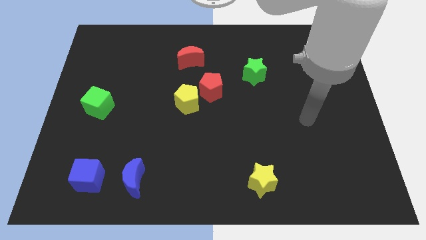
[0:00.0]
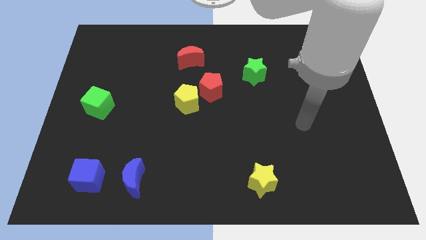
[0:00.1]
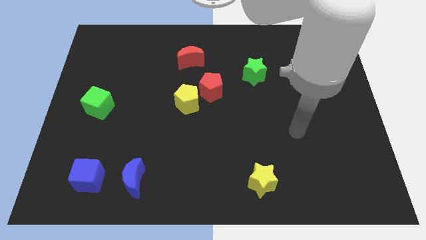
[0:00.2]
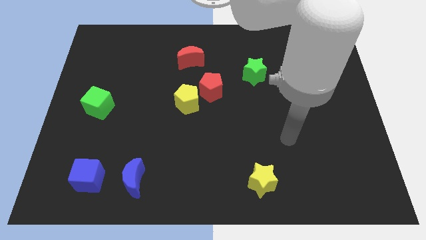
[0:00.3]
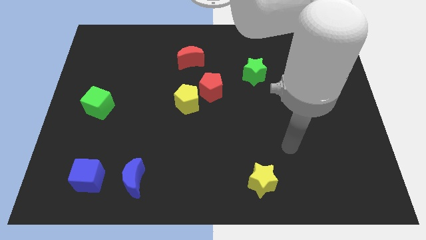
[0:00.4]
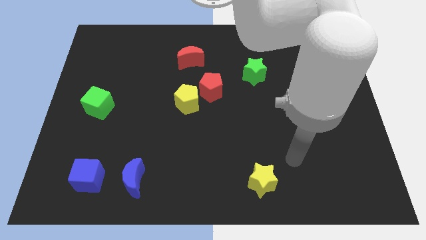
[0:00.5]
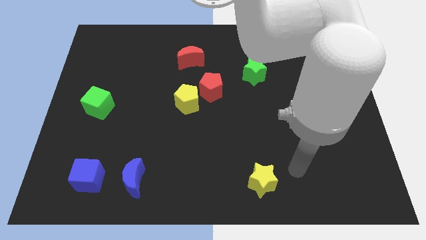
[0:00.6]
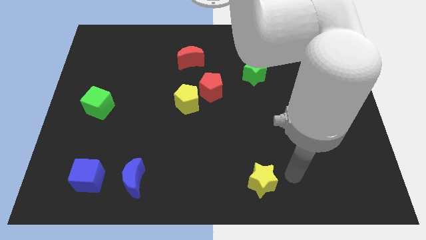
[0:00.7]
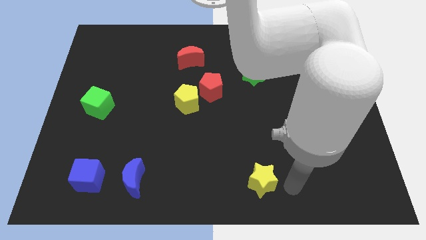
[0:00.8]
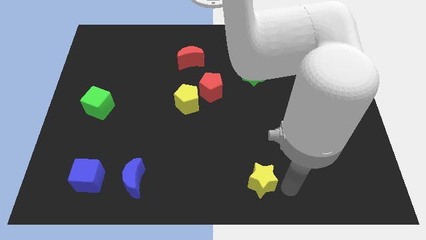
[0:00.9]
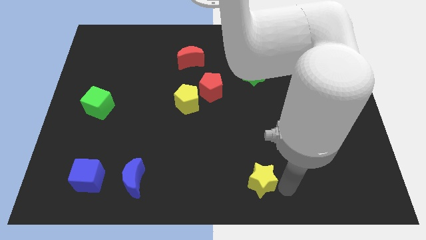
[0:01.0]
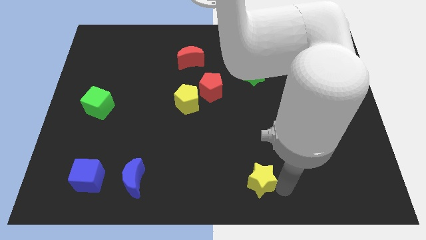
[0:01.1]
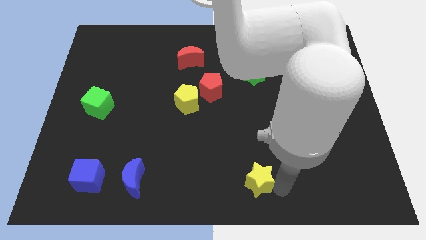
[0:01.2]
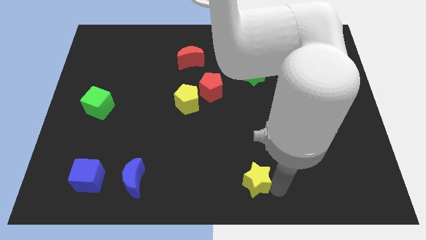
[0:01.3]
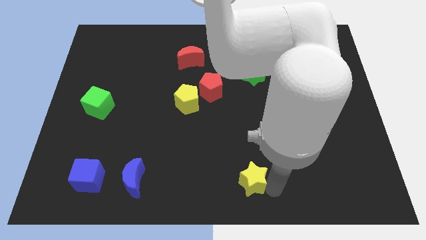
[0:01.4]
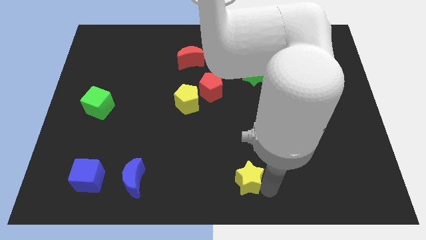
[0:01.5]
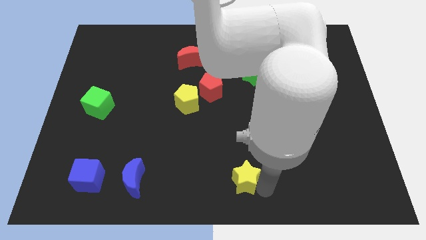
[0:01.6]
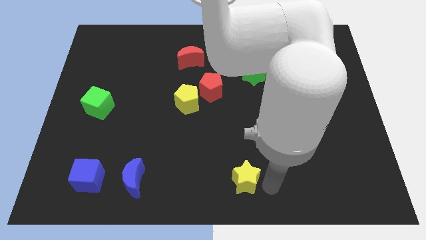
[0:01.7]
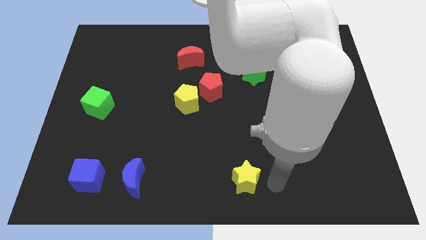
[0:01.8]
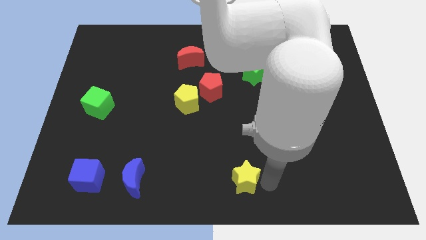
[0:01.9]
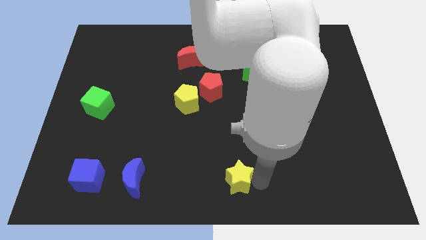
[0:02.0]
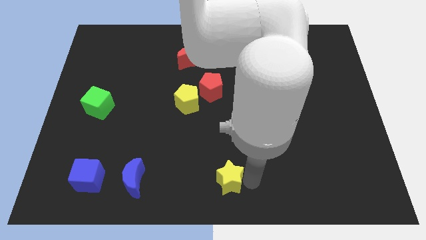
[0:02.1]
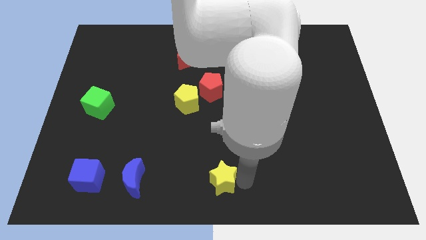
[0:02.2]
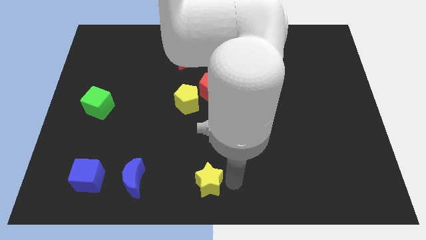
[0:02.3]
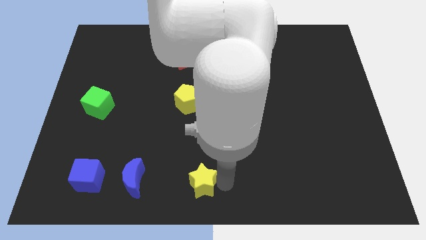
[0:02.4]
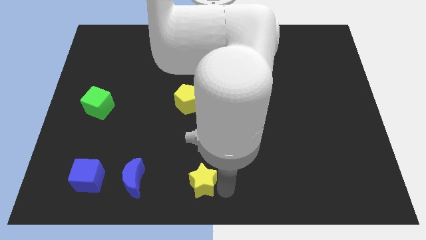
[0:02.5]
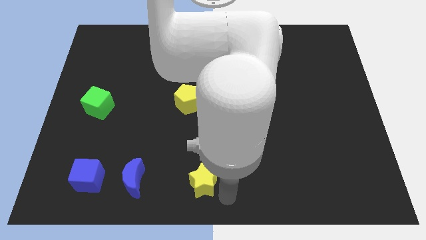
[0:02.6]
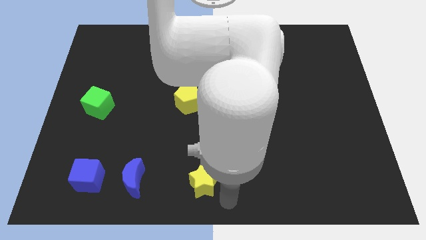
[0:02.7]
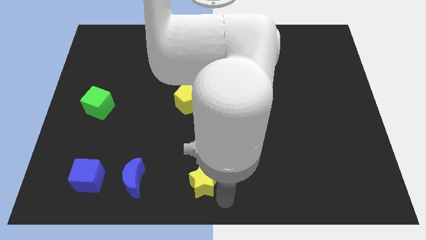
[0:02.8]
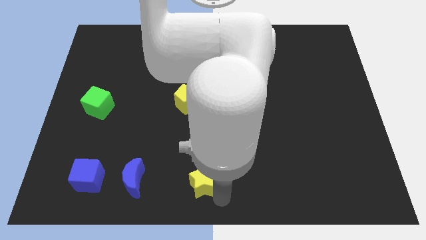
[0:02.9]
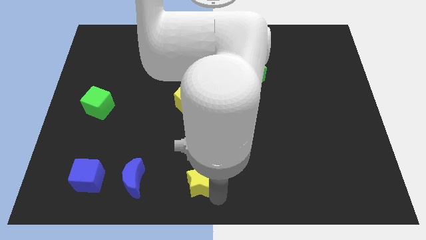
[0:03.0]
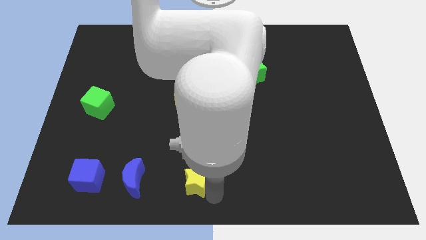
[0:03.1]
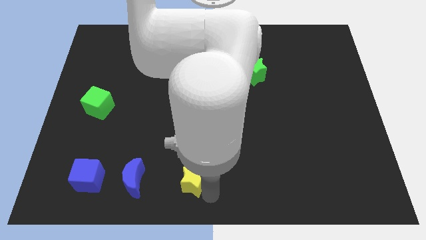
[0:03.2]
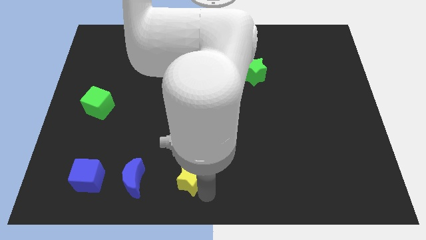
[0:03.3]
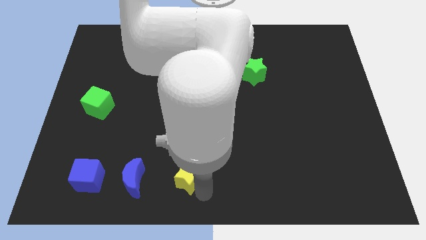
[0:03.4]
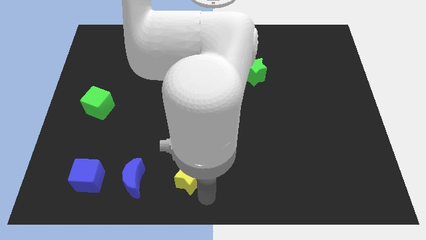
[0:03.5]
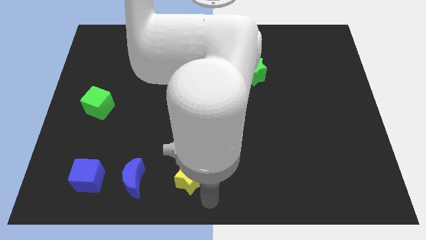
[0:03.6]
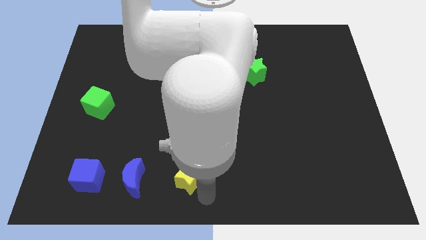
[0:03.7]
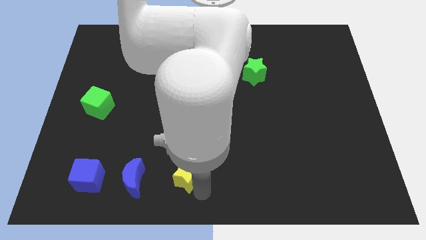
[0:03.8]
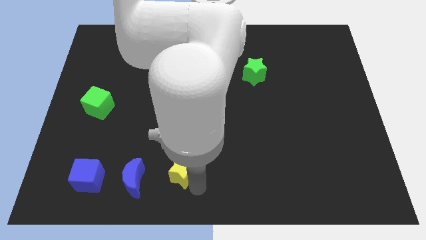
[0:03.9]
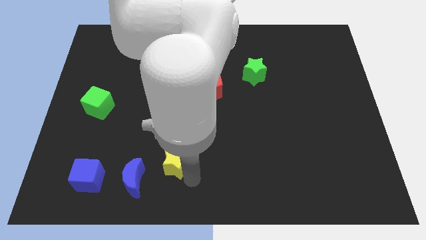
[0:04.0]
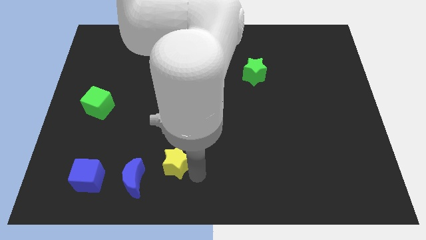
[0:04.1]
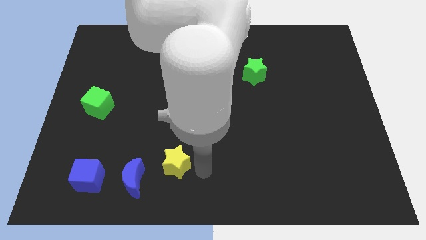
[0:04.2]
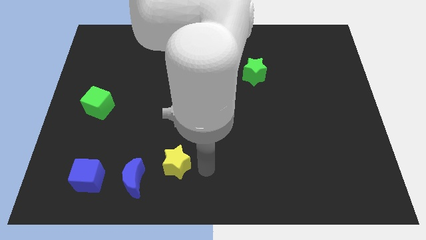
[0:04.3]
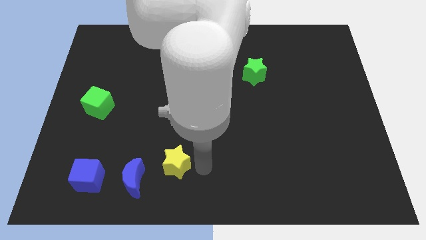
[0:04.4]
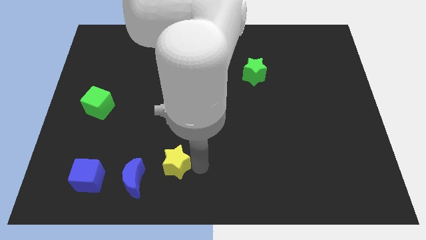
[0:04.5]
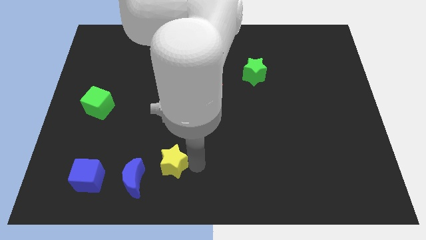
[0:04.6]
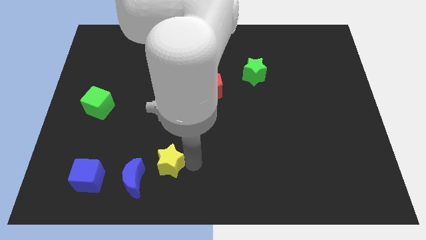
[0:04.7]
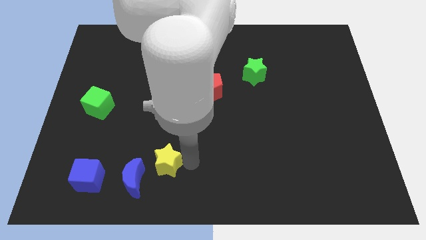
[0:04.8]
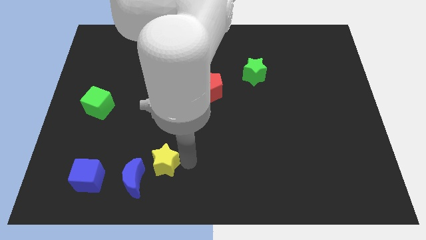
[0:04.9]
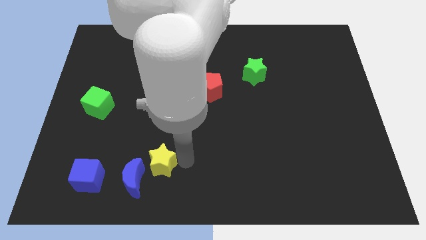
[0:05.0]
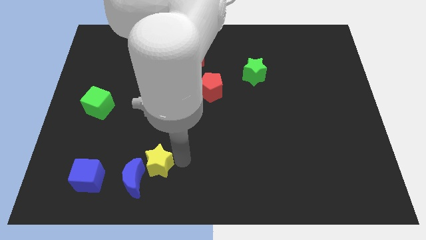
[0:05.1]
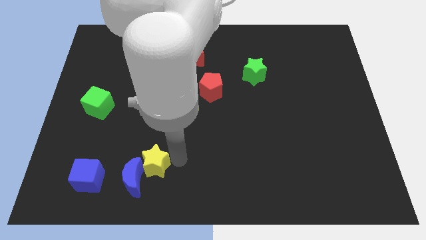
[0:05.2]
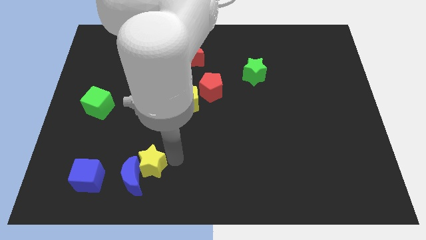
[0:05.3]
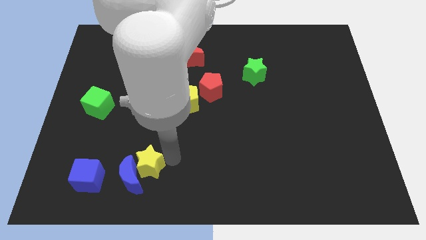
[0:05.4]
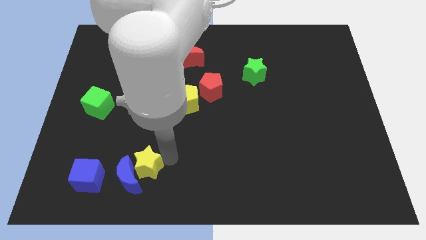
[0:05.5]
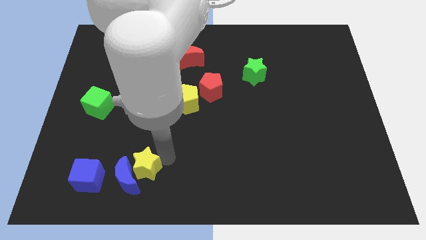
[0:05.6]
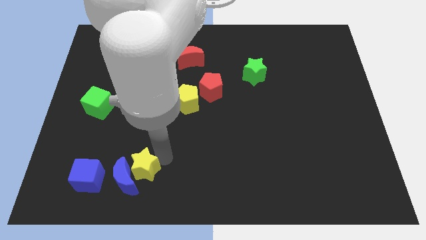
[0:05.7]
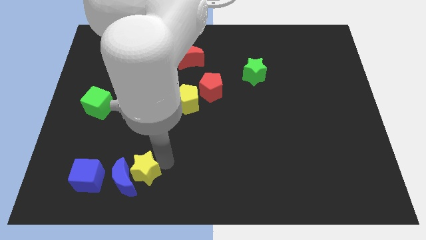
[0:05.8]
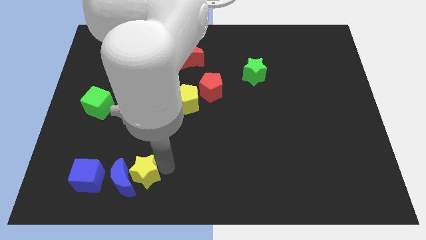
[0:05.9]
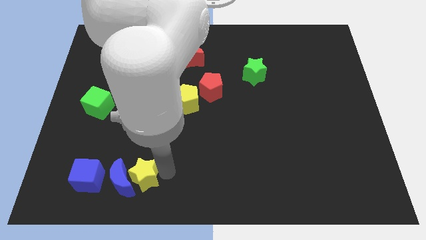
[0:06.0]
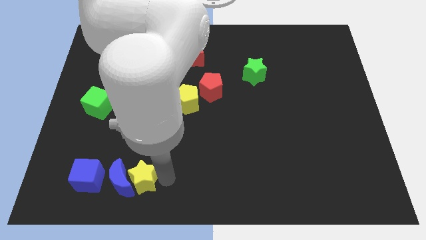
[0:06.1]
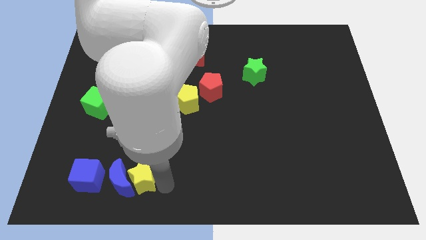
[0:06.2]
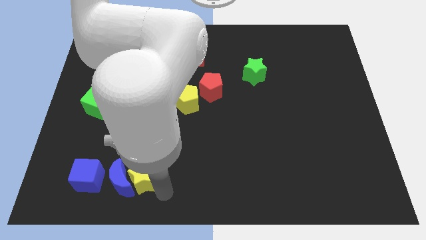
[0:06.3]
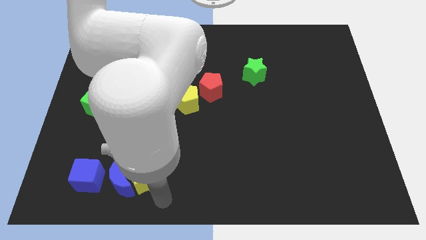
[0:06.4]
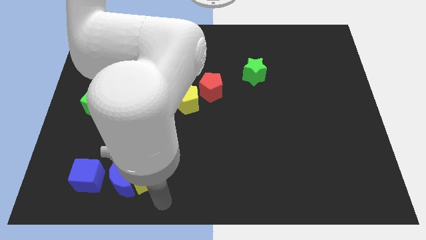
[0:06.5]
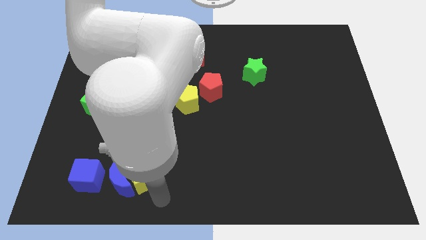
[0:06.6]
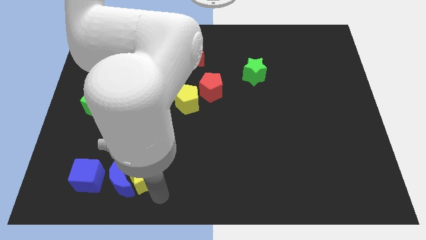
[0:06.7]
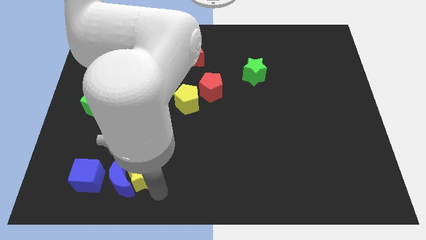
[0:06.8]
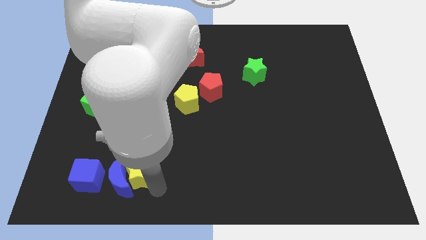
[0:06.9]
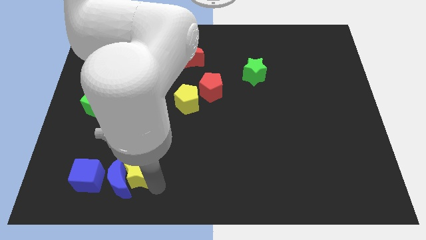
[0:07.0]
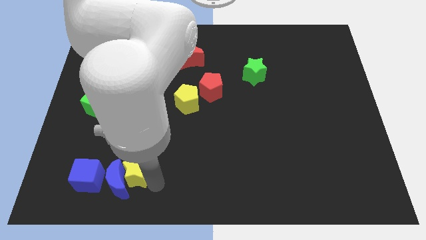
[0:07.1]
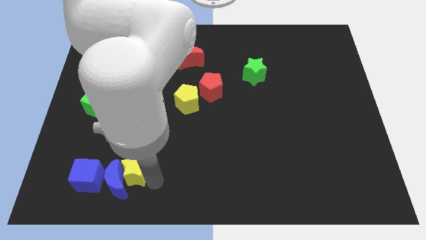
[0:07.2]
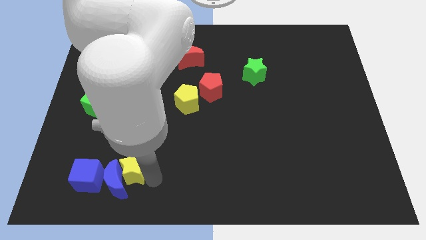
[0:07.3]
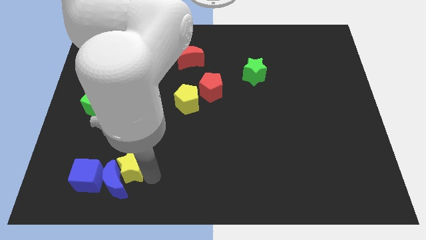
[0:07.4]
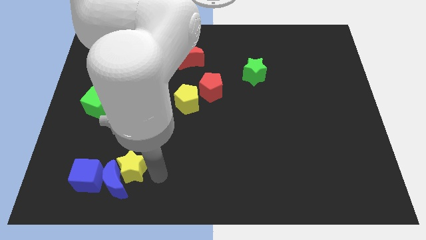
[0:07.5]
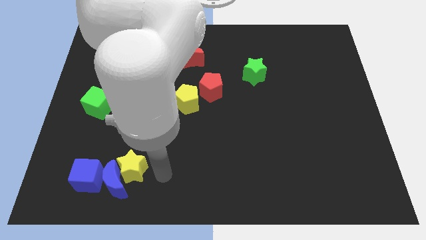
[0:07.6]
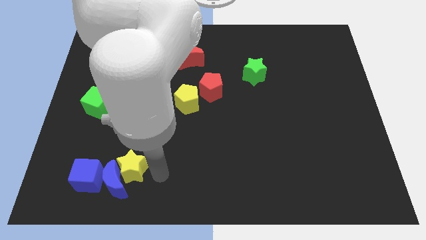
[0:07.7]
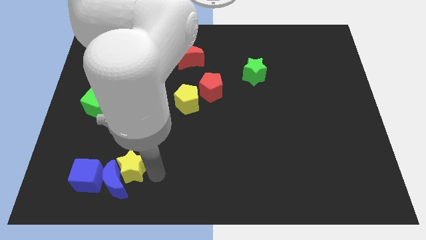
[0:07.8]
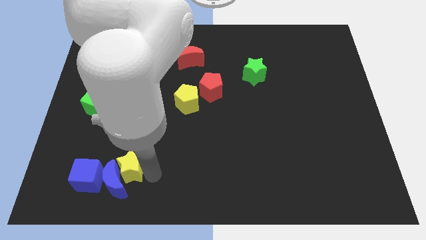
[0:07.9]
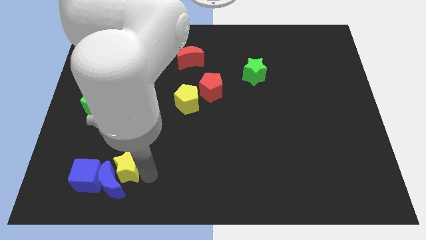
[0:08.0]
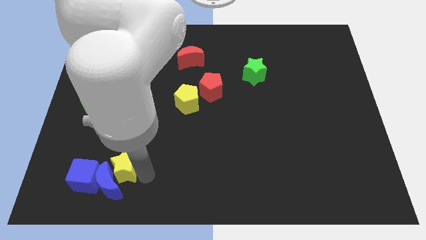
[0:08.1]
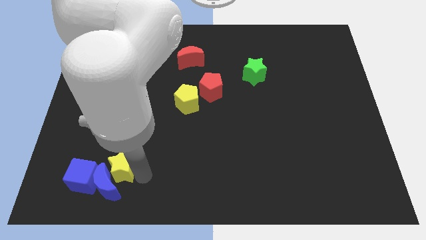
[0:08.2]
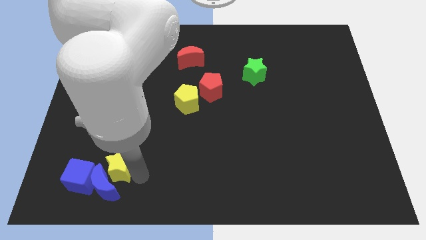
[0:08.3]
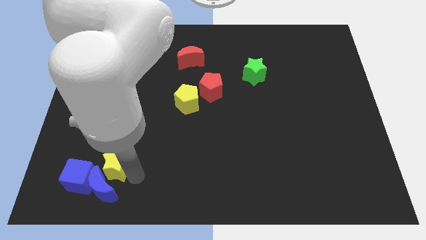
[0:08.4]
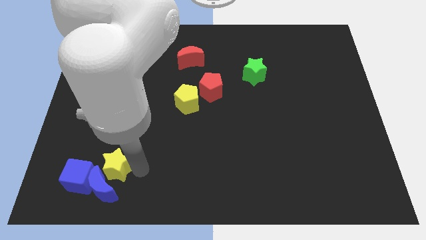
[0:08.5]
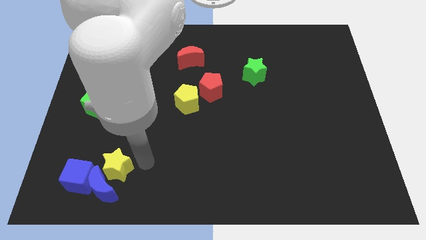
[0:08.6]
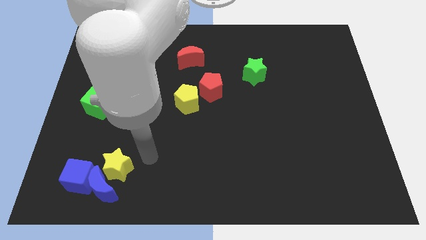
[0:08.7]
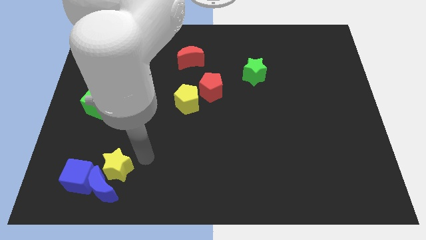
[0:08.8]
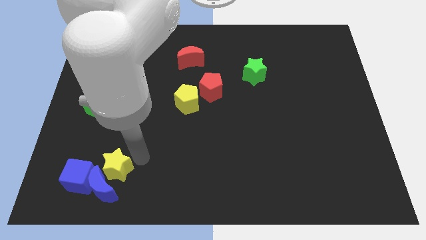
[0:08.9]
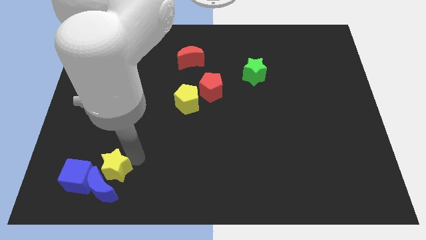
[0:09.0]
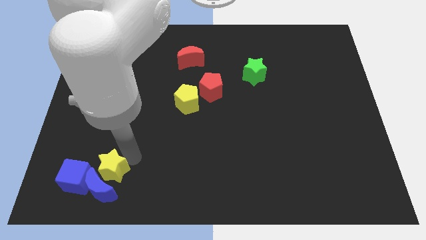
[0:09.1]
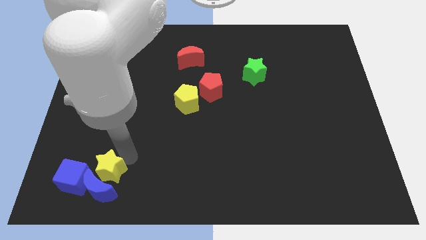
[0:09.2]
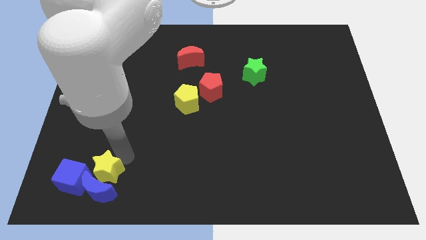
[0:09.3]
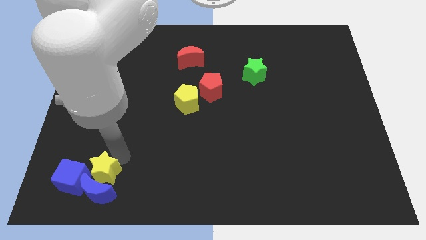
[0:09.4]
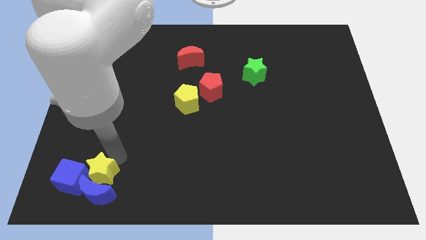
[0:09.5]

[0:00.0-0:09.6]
push the yellow star close to the blue cube
